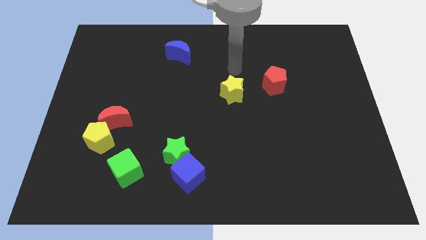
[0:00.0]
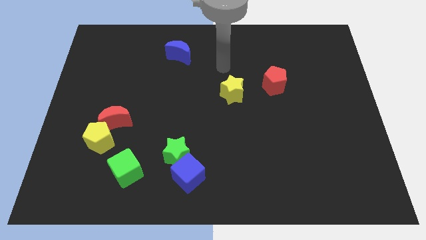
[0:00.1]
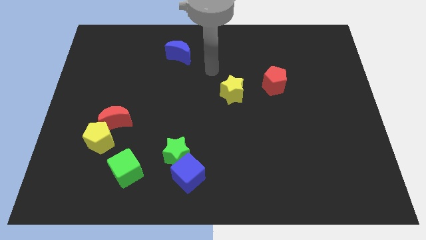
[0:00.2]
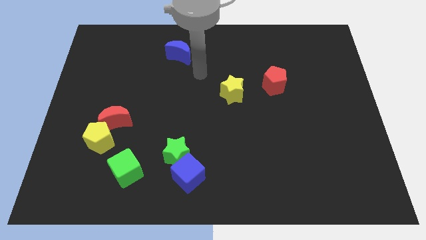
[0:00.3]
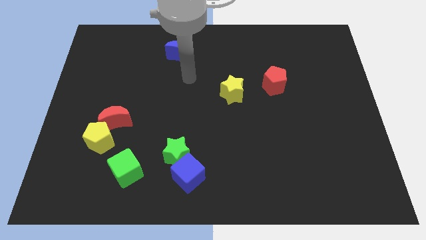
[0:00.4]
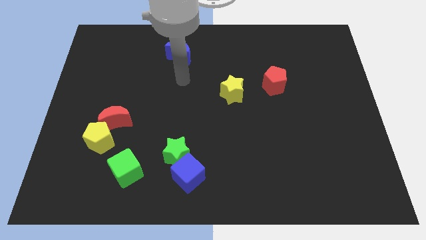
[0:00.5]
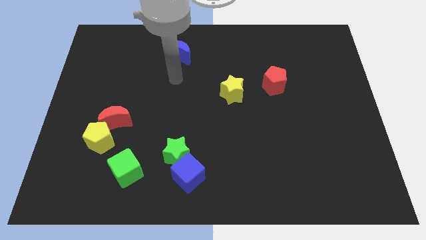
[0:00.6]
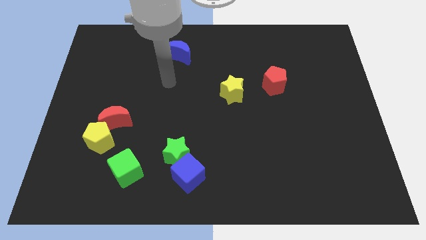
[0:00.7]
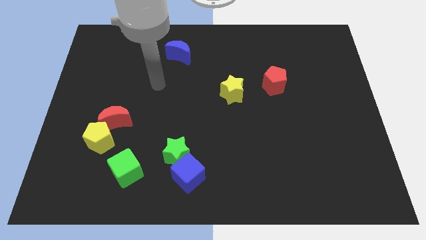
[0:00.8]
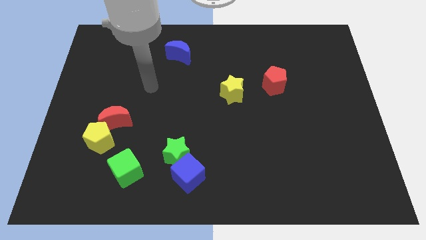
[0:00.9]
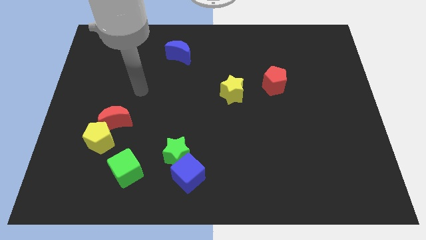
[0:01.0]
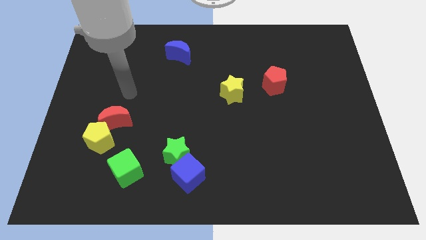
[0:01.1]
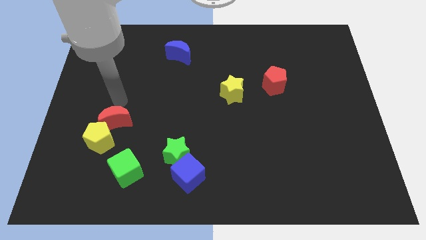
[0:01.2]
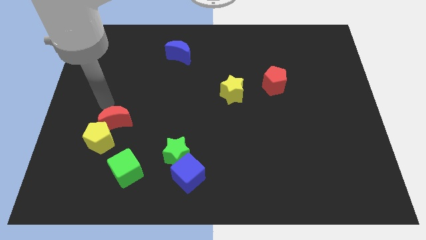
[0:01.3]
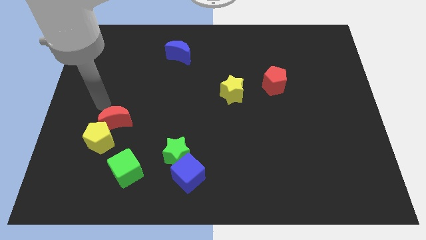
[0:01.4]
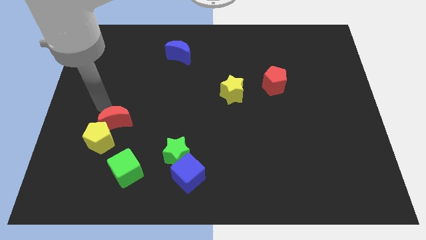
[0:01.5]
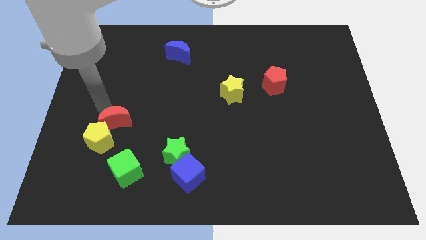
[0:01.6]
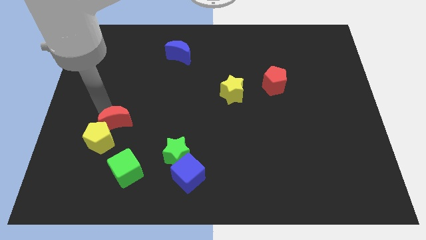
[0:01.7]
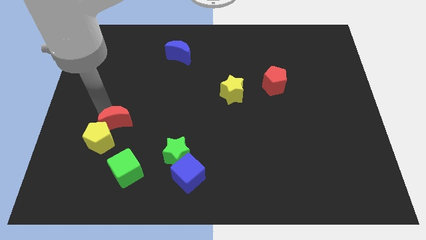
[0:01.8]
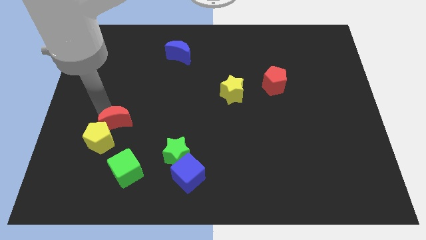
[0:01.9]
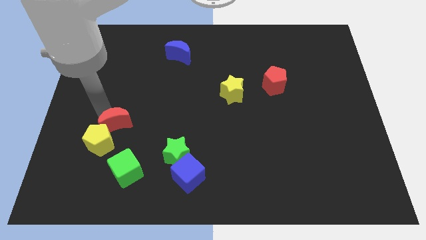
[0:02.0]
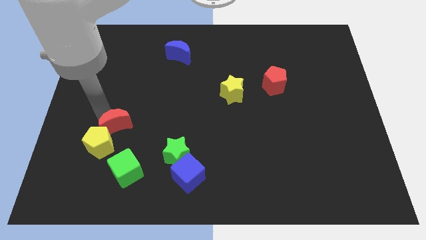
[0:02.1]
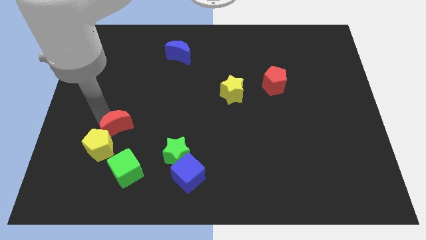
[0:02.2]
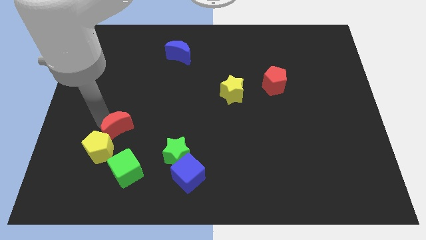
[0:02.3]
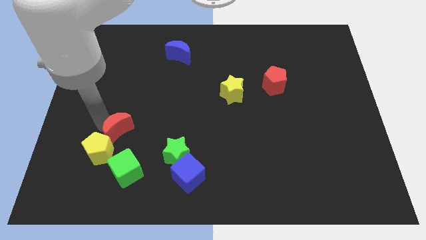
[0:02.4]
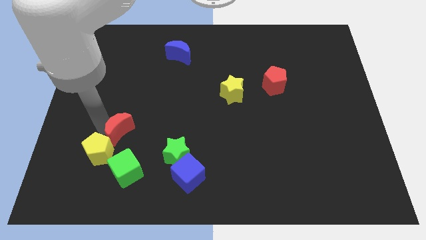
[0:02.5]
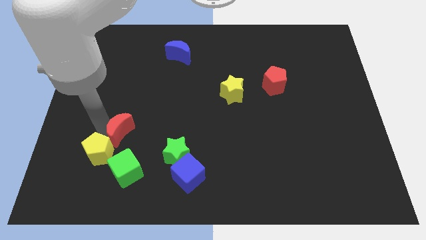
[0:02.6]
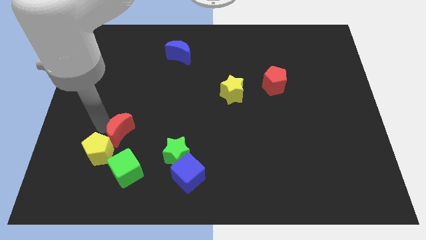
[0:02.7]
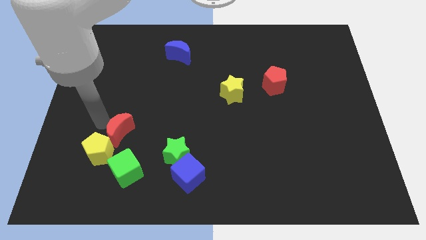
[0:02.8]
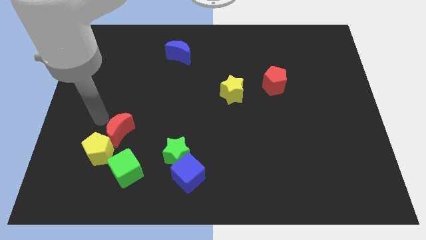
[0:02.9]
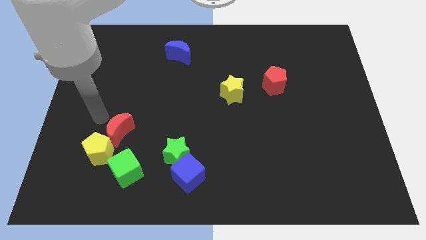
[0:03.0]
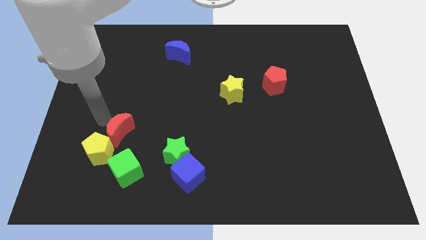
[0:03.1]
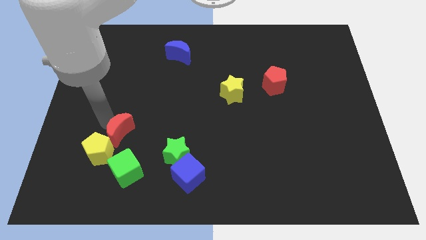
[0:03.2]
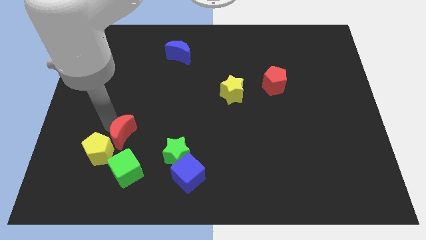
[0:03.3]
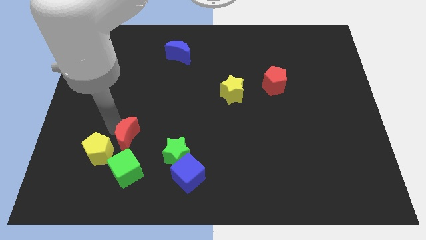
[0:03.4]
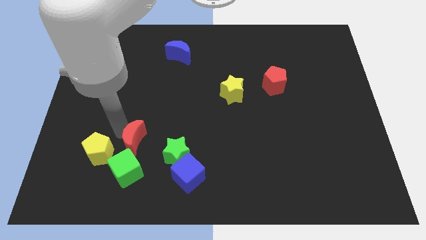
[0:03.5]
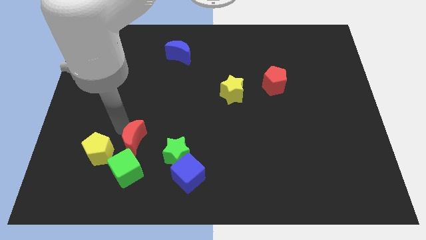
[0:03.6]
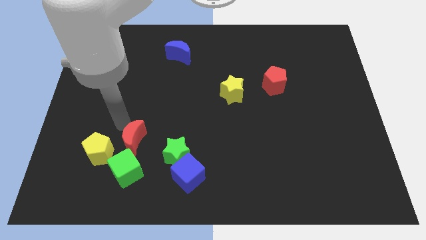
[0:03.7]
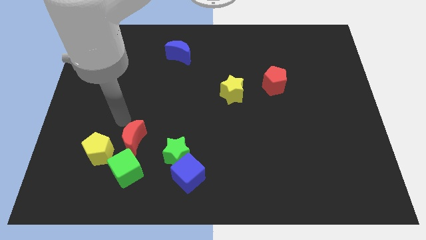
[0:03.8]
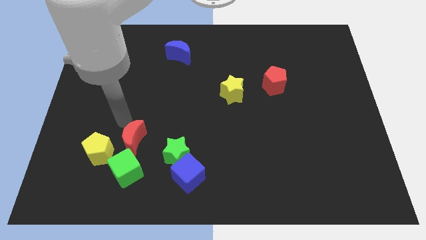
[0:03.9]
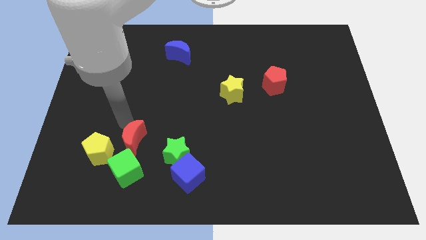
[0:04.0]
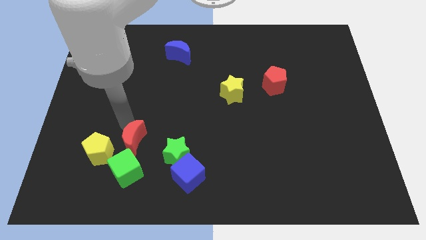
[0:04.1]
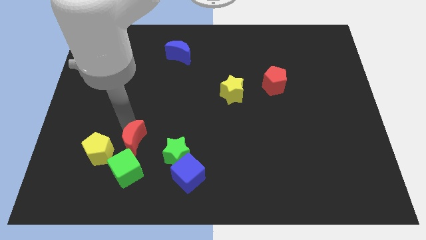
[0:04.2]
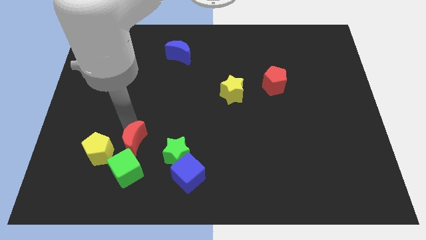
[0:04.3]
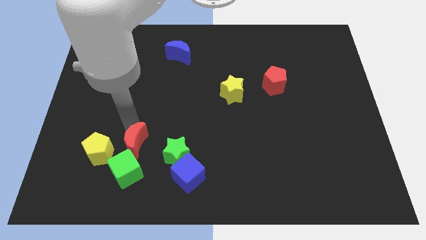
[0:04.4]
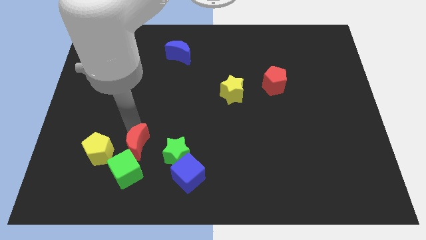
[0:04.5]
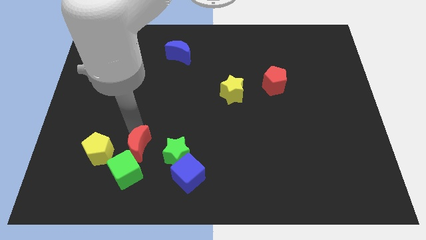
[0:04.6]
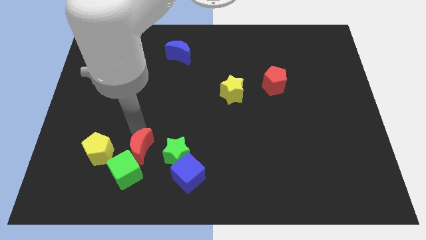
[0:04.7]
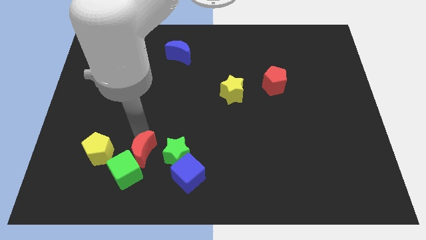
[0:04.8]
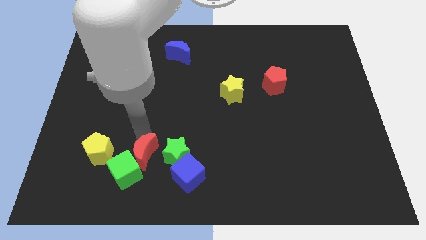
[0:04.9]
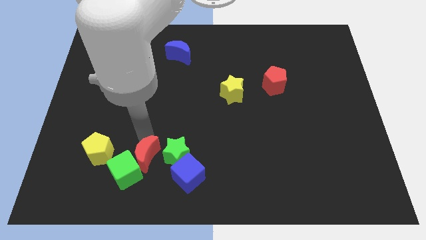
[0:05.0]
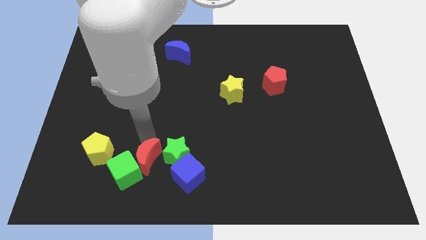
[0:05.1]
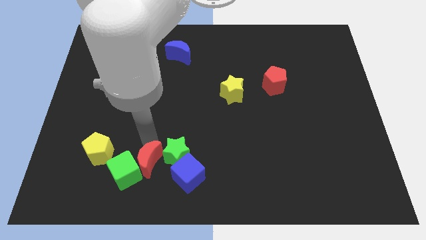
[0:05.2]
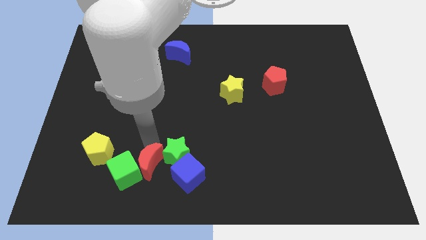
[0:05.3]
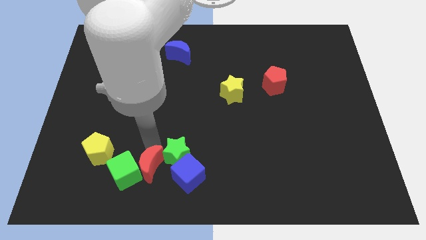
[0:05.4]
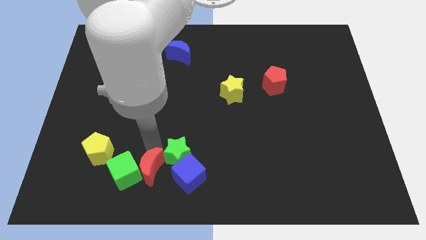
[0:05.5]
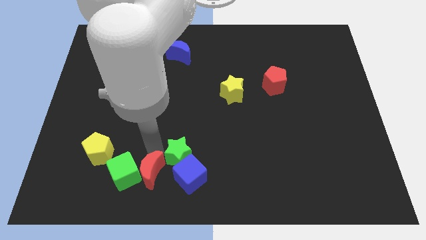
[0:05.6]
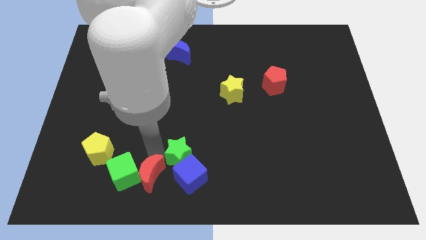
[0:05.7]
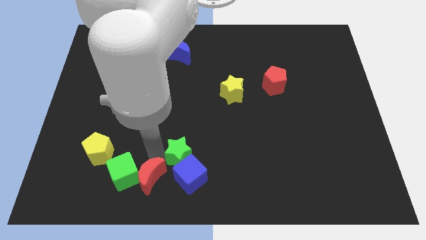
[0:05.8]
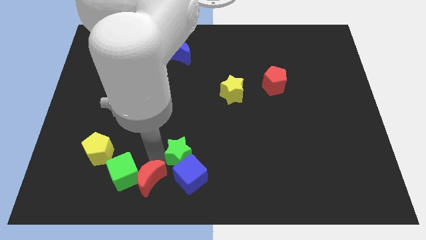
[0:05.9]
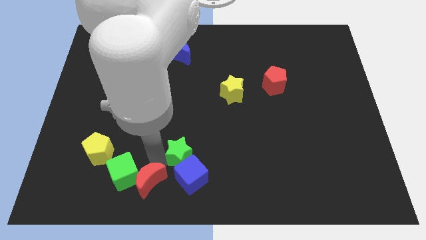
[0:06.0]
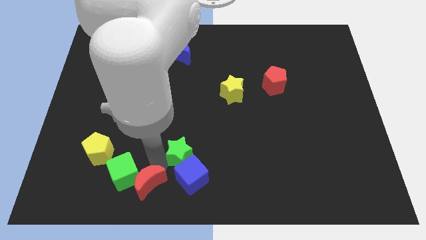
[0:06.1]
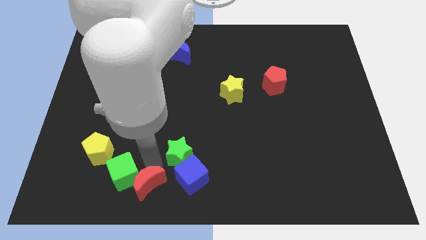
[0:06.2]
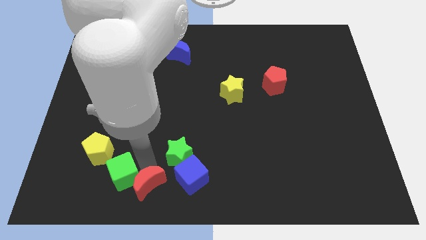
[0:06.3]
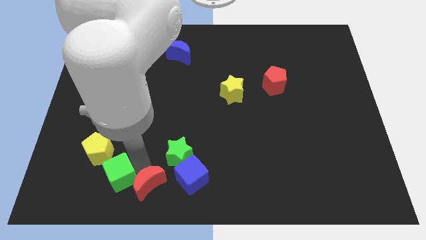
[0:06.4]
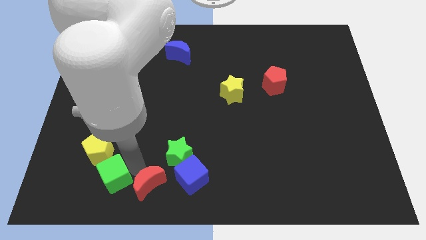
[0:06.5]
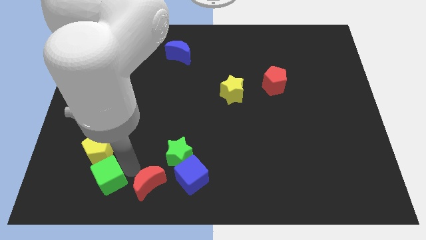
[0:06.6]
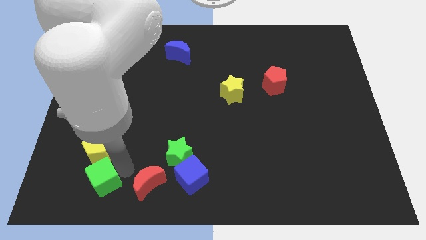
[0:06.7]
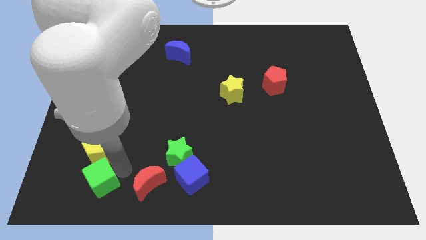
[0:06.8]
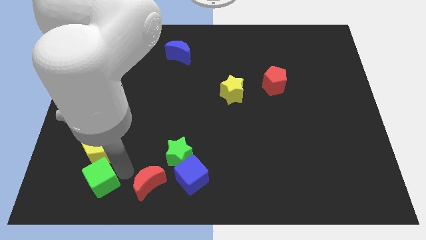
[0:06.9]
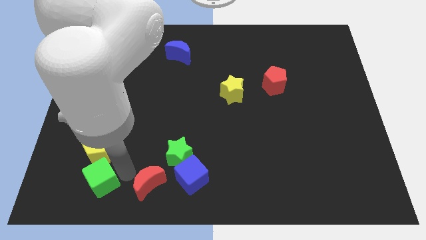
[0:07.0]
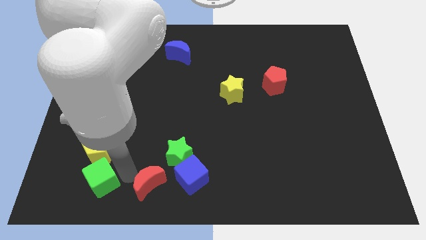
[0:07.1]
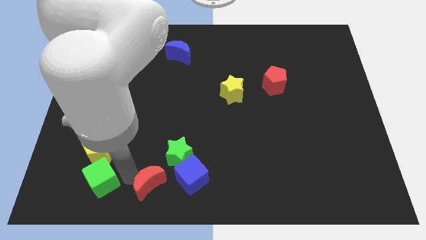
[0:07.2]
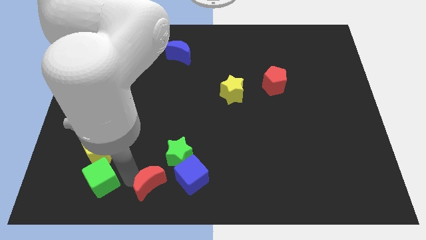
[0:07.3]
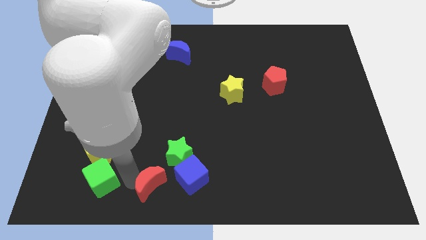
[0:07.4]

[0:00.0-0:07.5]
push the red moon to the bottom
